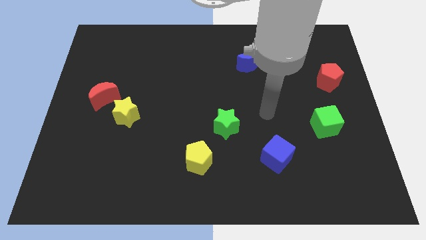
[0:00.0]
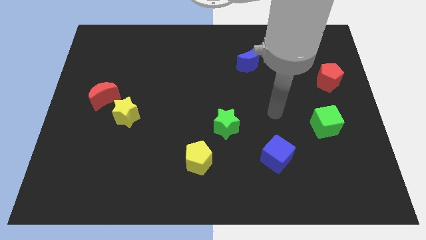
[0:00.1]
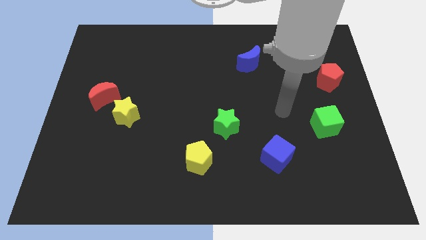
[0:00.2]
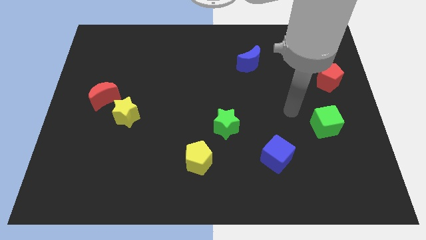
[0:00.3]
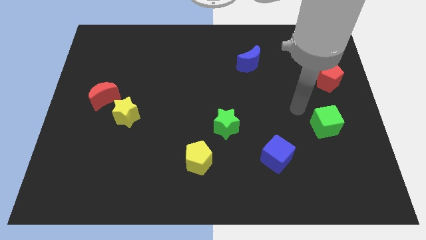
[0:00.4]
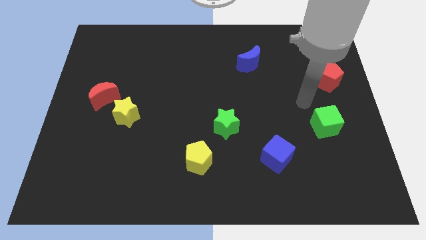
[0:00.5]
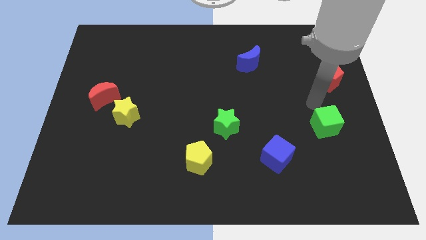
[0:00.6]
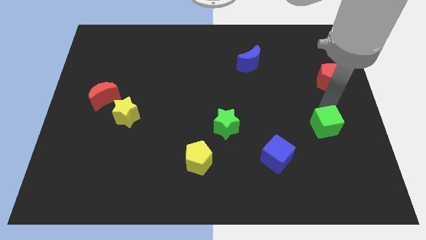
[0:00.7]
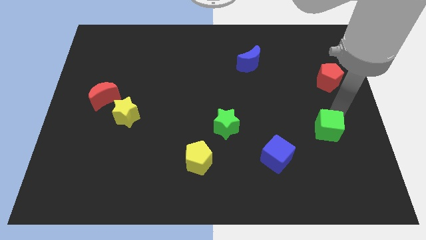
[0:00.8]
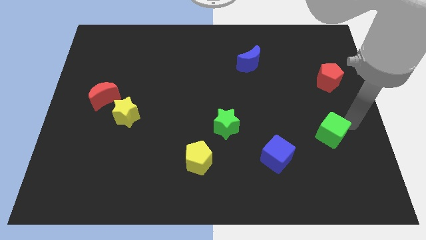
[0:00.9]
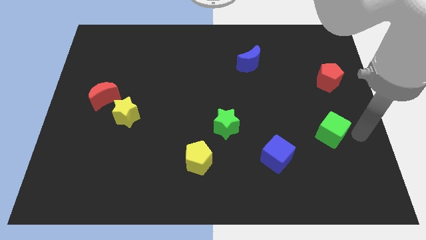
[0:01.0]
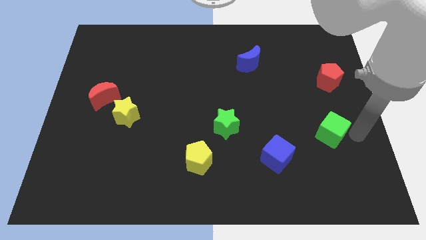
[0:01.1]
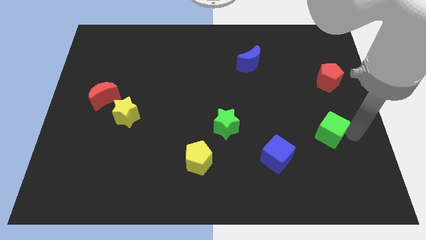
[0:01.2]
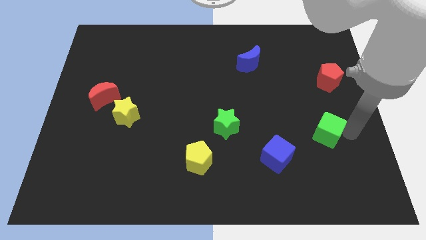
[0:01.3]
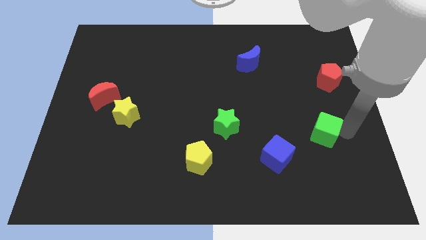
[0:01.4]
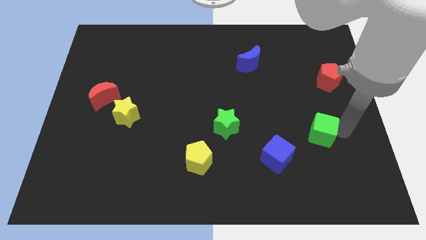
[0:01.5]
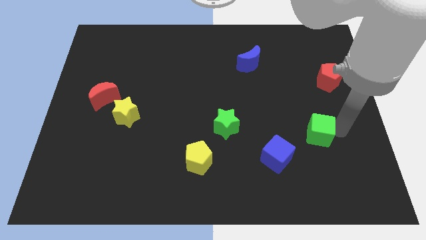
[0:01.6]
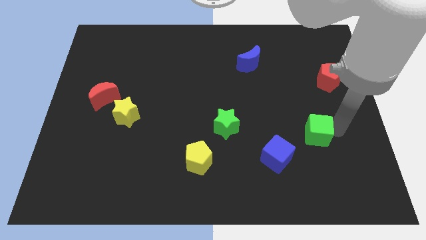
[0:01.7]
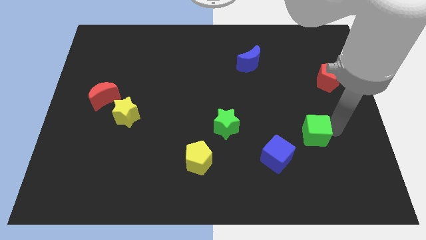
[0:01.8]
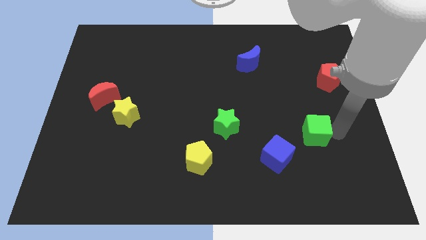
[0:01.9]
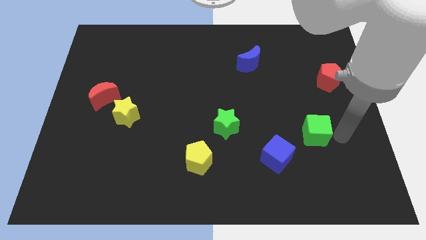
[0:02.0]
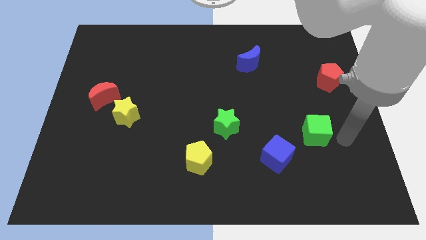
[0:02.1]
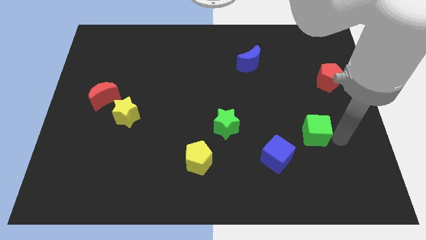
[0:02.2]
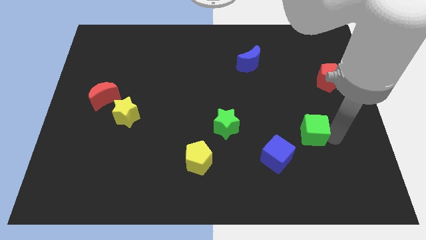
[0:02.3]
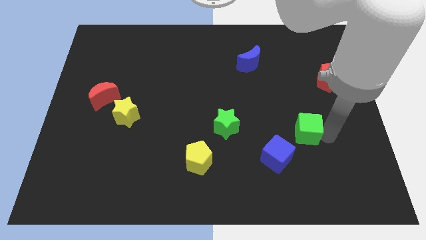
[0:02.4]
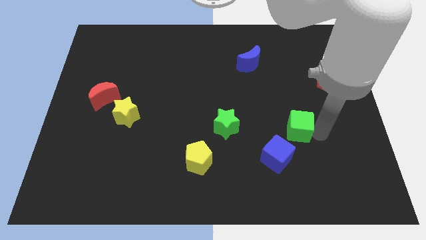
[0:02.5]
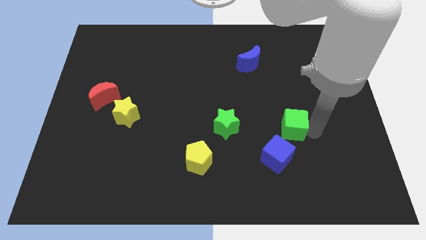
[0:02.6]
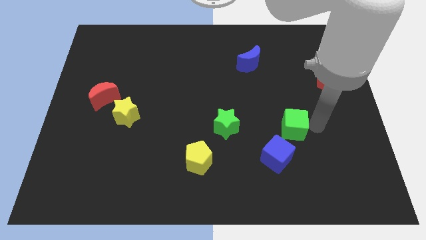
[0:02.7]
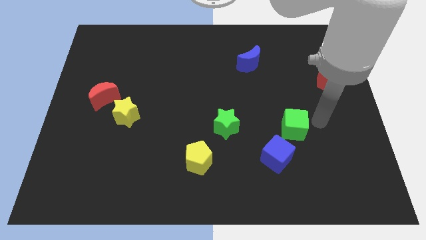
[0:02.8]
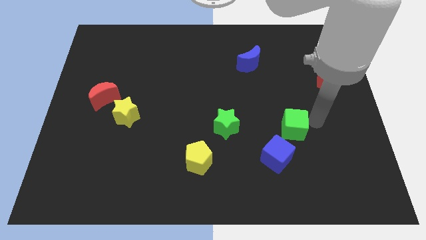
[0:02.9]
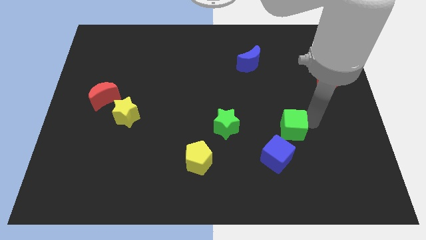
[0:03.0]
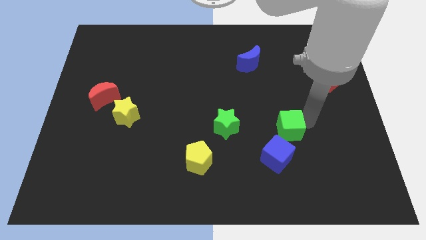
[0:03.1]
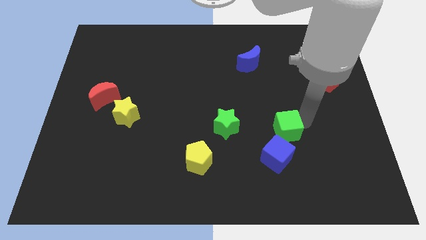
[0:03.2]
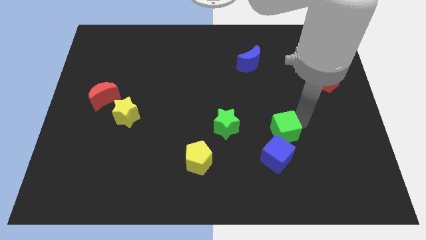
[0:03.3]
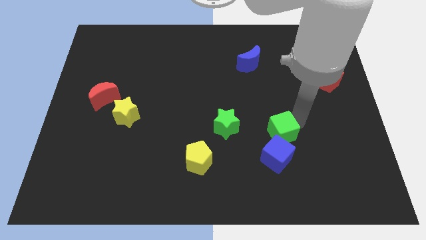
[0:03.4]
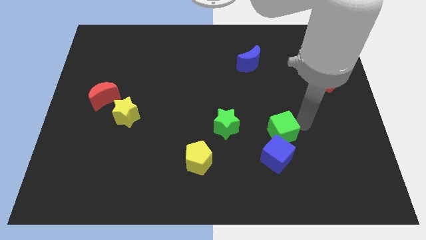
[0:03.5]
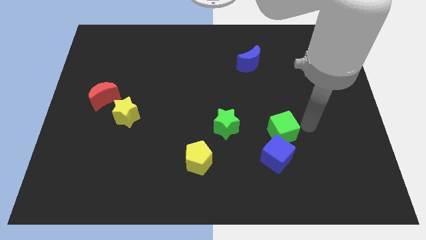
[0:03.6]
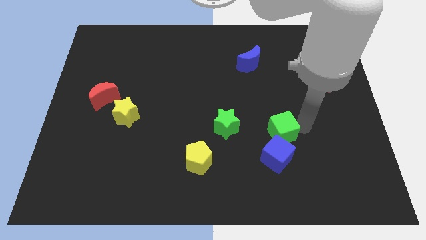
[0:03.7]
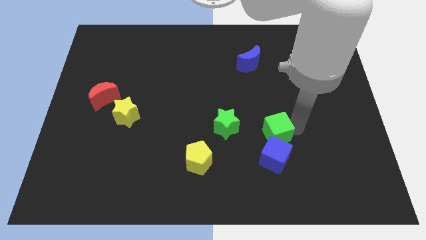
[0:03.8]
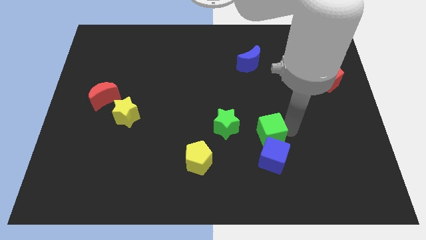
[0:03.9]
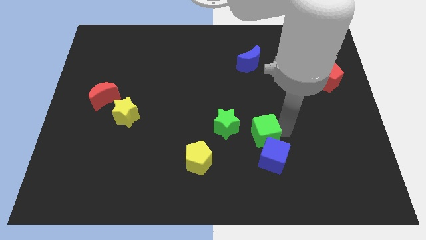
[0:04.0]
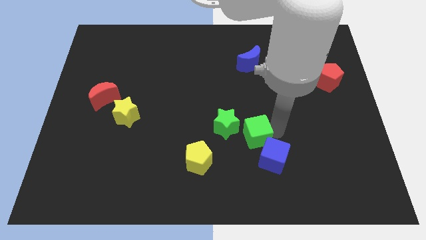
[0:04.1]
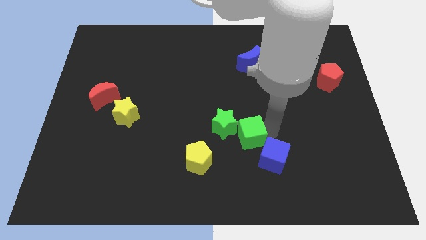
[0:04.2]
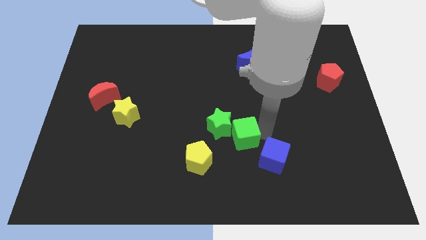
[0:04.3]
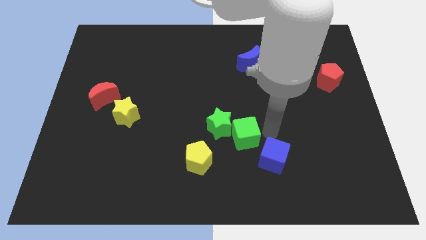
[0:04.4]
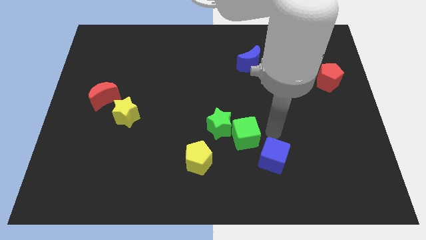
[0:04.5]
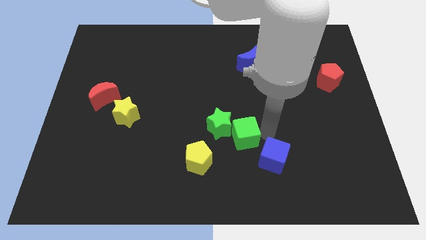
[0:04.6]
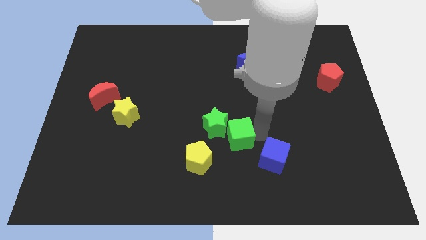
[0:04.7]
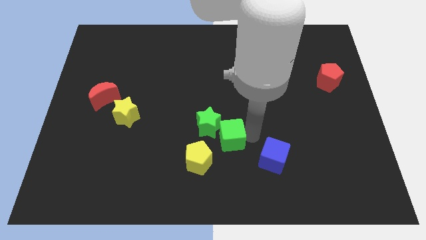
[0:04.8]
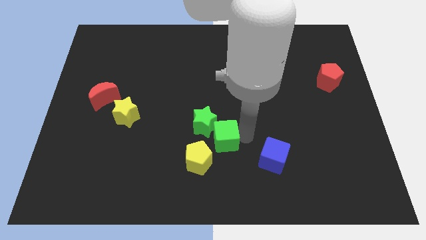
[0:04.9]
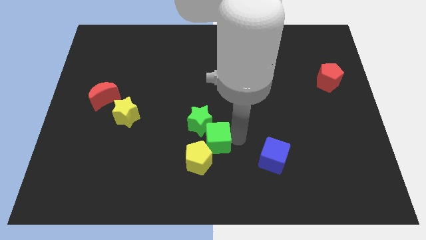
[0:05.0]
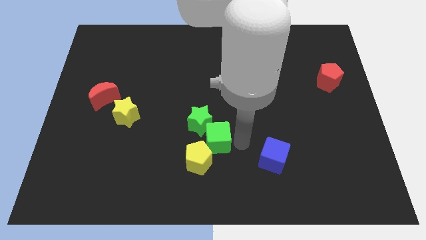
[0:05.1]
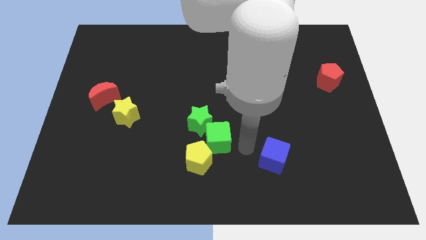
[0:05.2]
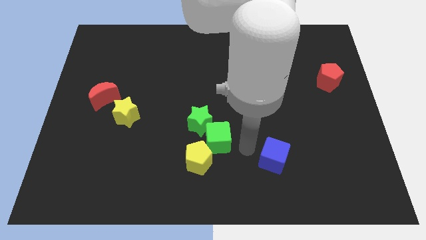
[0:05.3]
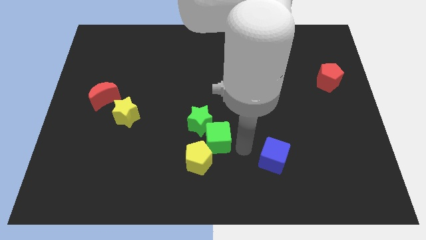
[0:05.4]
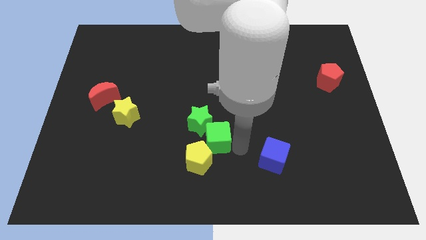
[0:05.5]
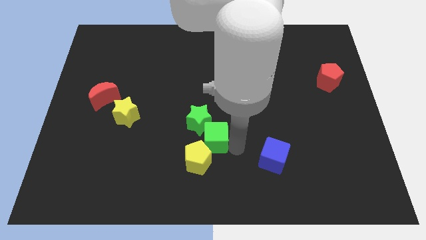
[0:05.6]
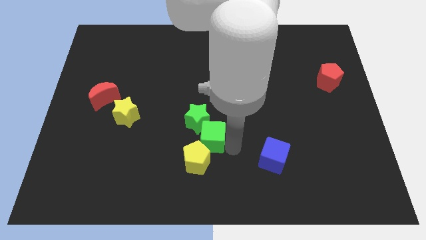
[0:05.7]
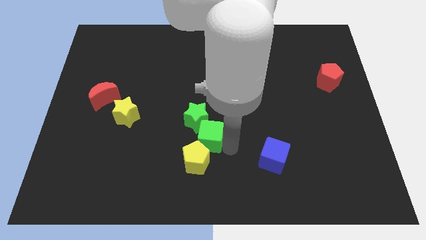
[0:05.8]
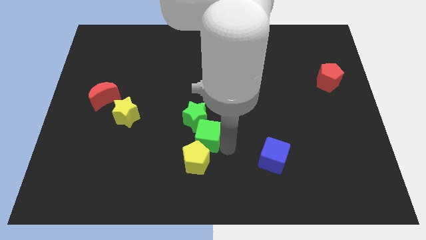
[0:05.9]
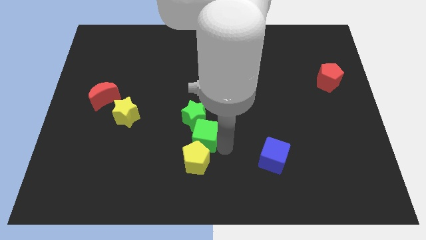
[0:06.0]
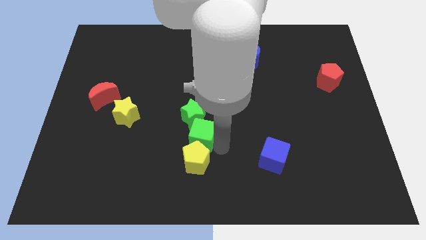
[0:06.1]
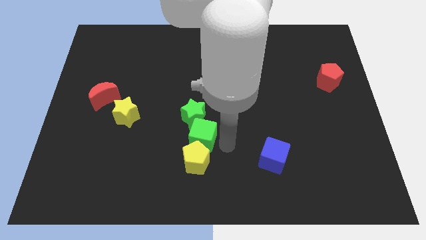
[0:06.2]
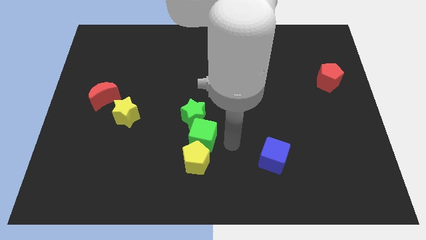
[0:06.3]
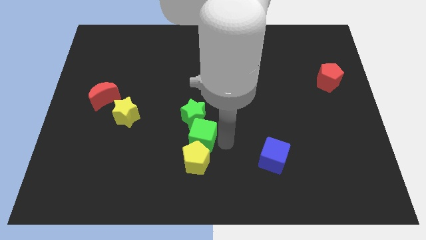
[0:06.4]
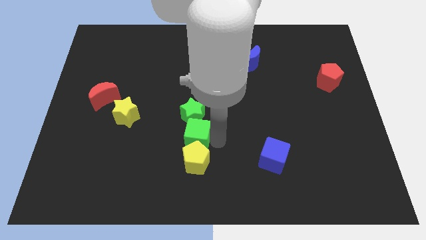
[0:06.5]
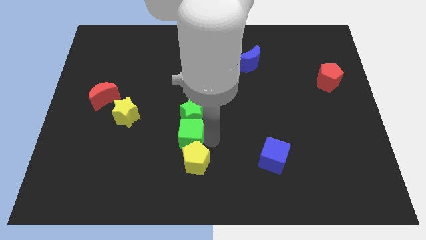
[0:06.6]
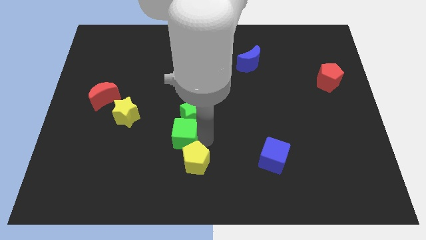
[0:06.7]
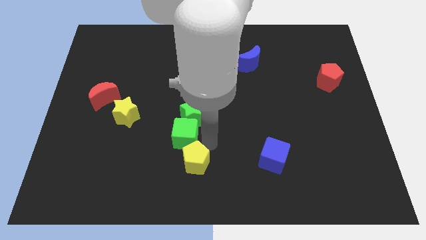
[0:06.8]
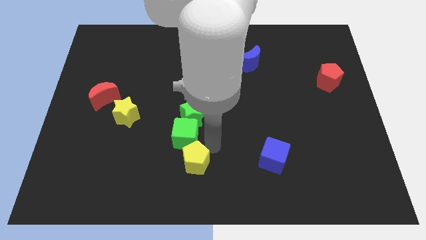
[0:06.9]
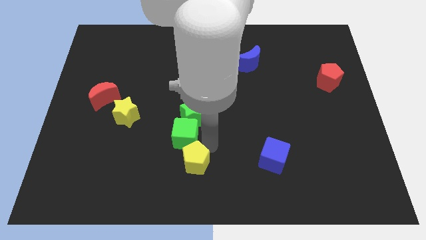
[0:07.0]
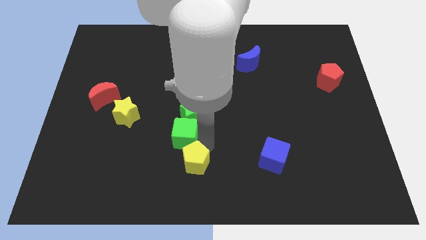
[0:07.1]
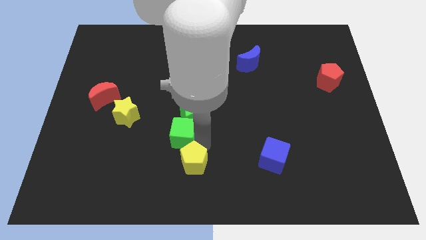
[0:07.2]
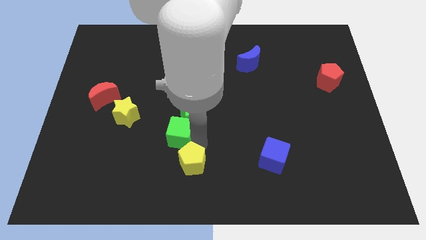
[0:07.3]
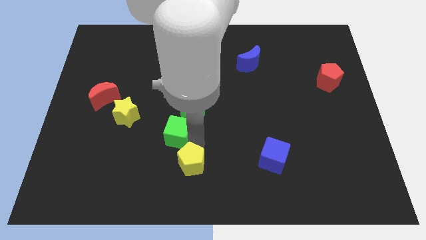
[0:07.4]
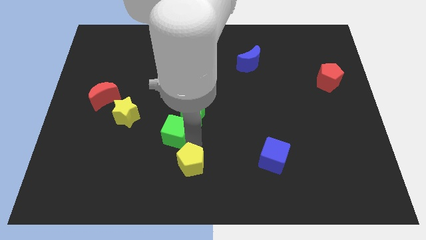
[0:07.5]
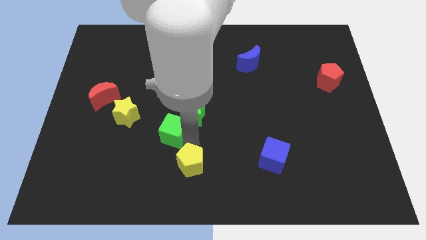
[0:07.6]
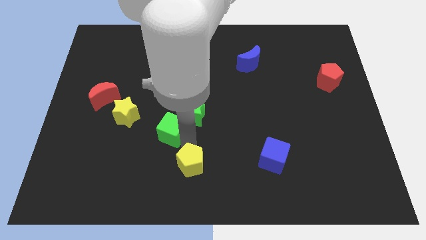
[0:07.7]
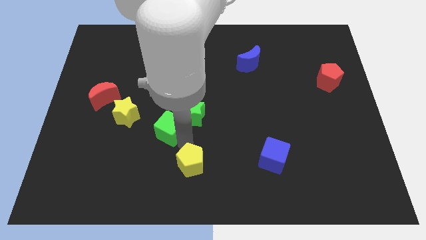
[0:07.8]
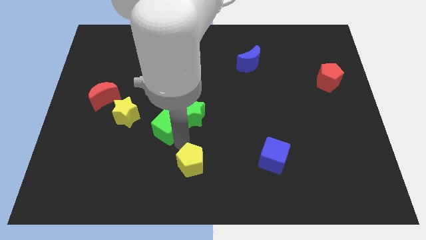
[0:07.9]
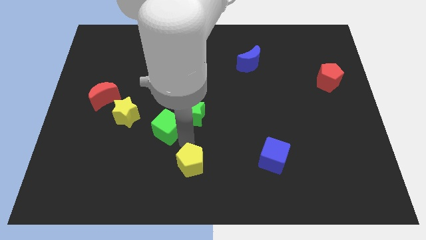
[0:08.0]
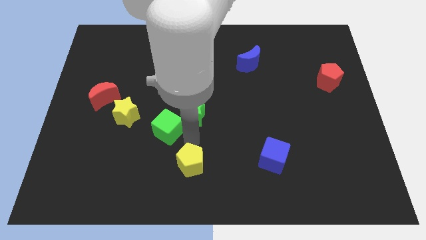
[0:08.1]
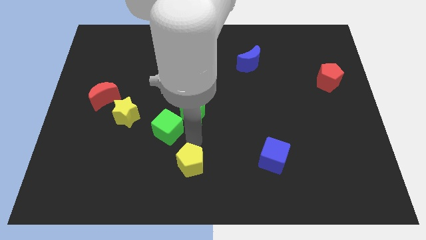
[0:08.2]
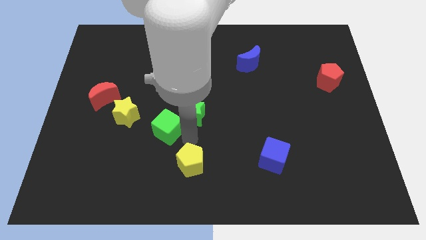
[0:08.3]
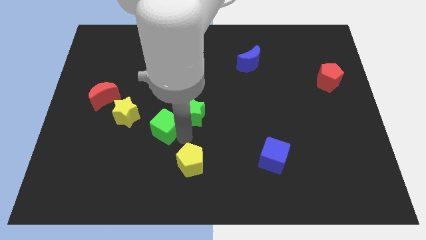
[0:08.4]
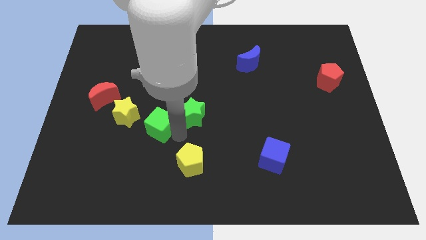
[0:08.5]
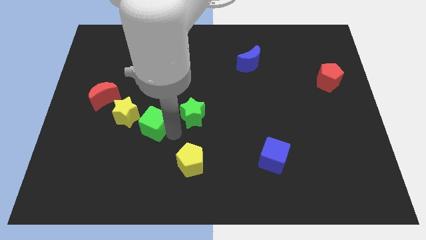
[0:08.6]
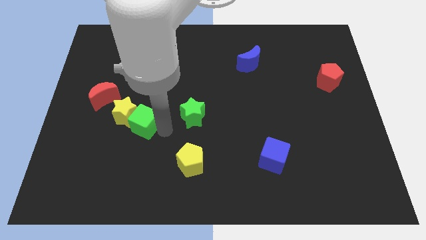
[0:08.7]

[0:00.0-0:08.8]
slide the green cube close to the yellow star
